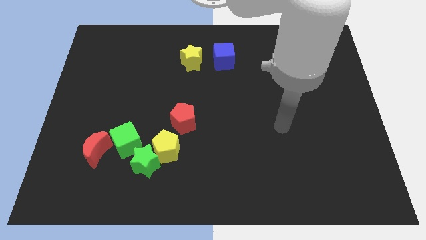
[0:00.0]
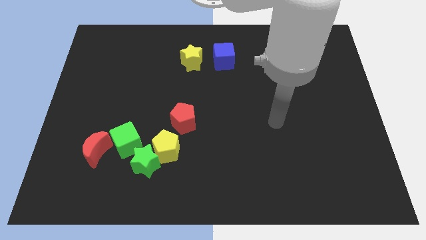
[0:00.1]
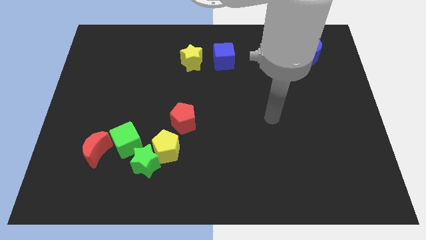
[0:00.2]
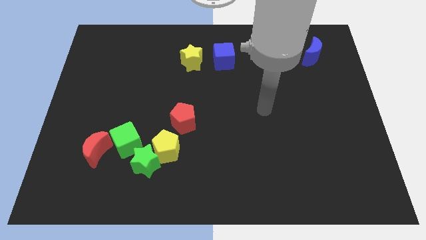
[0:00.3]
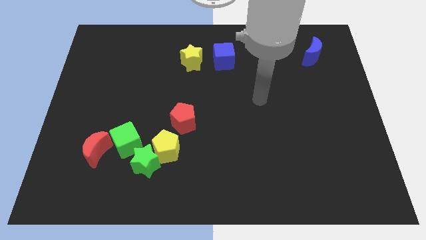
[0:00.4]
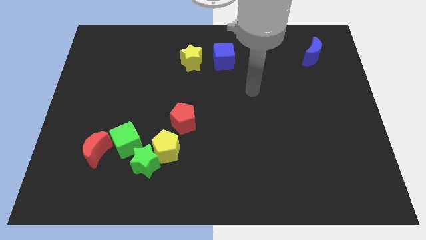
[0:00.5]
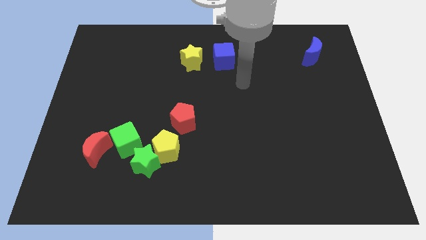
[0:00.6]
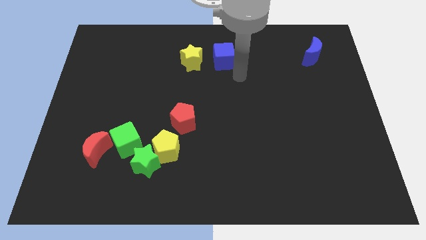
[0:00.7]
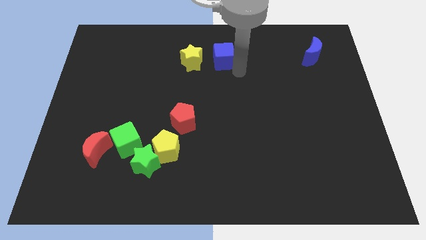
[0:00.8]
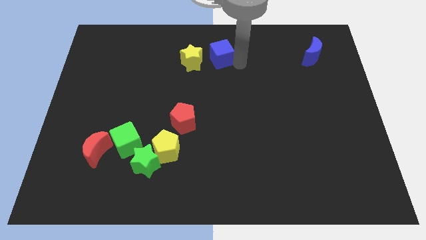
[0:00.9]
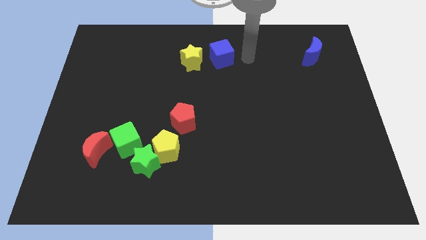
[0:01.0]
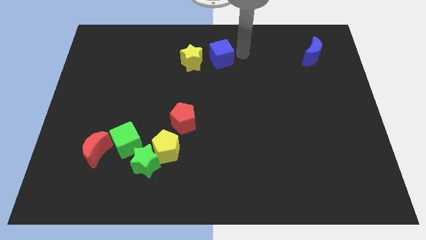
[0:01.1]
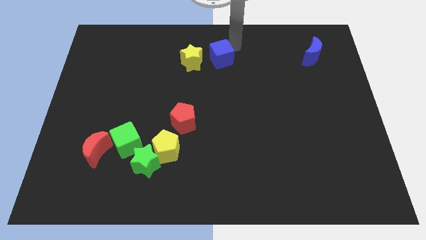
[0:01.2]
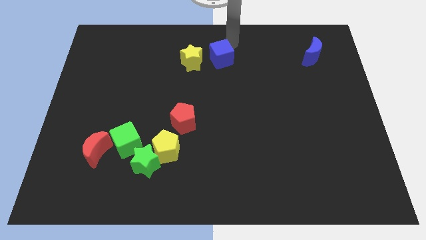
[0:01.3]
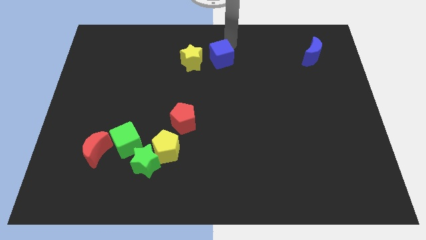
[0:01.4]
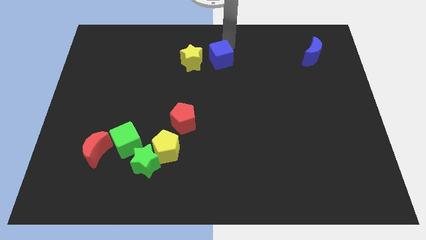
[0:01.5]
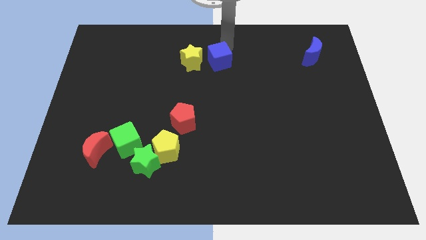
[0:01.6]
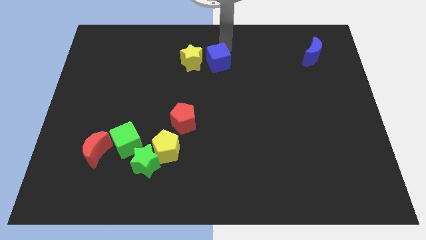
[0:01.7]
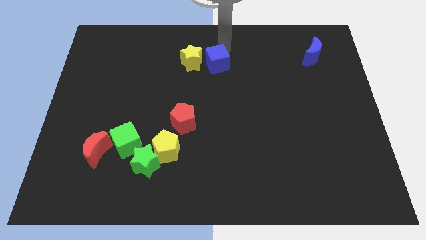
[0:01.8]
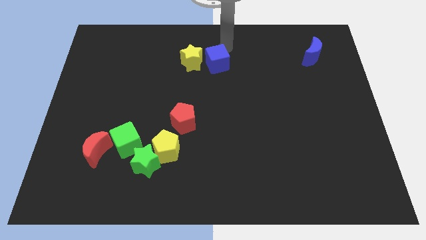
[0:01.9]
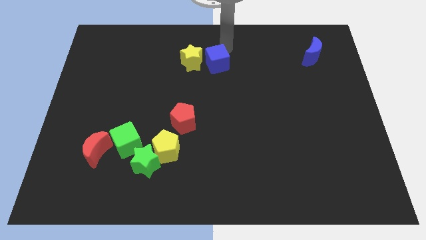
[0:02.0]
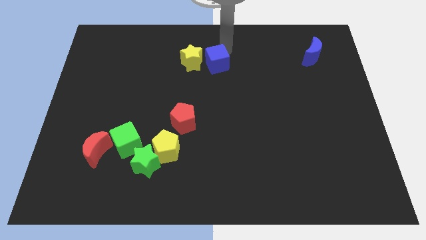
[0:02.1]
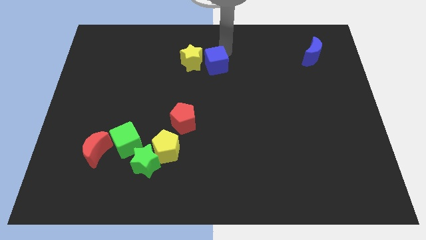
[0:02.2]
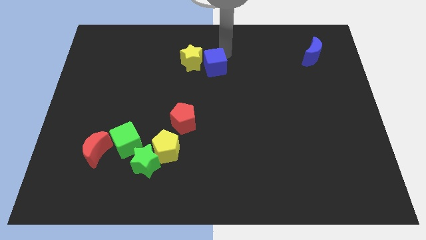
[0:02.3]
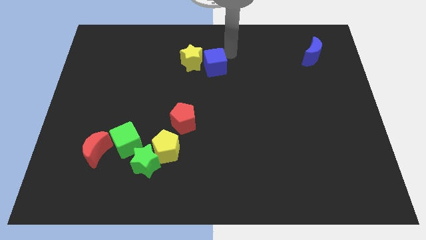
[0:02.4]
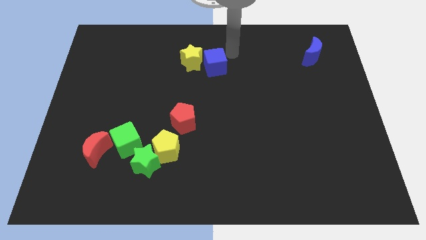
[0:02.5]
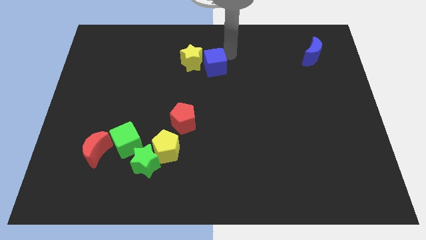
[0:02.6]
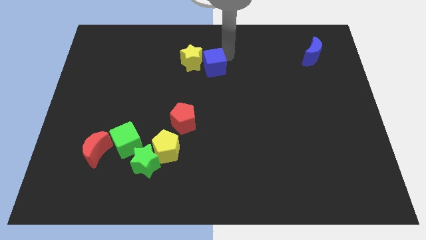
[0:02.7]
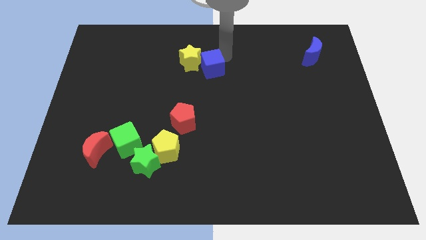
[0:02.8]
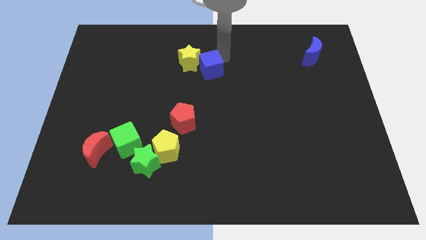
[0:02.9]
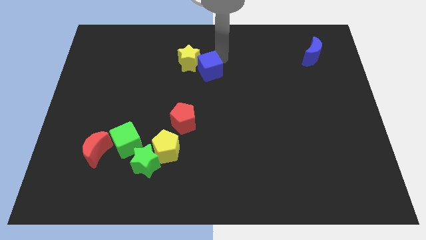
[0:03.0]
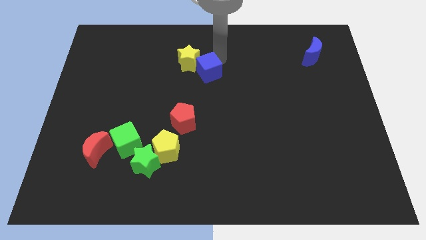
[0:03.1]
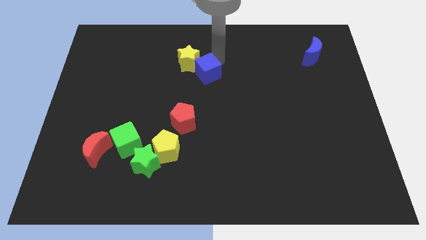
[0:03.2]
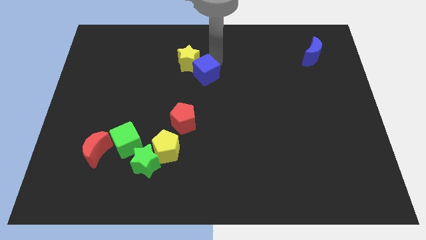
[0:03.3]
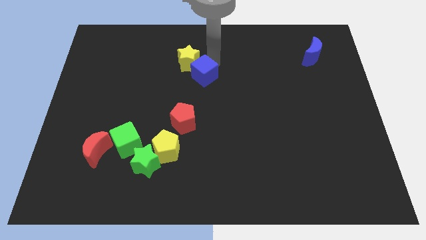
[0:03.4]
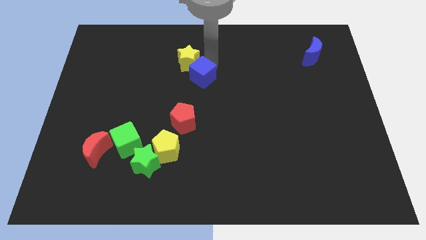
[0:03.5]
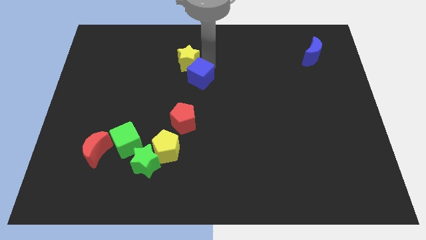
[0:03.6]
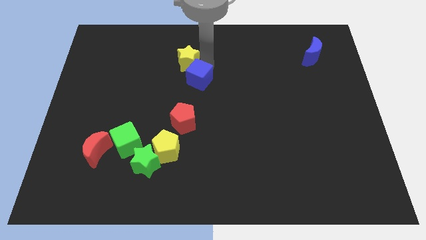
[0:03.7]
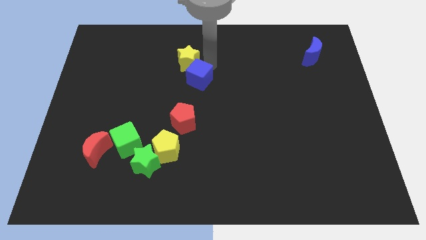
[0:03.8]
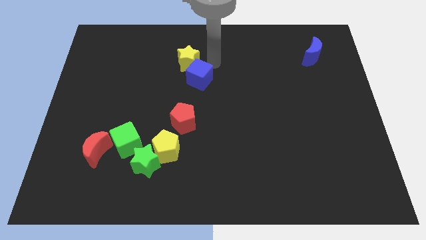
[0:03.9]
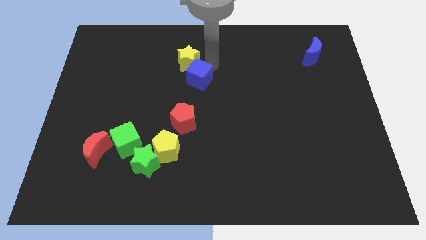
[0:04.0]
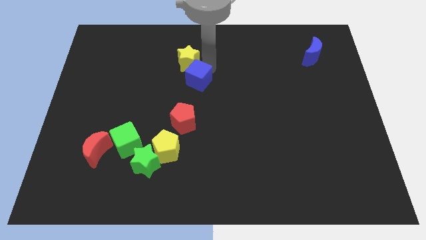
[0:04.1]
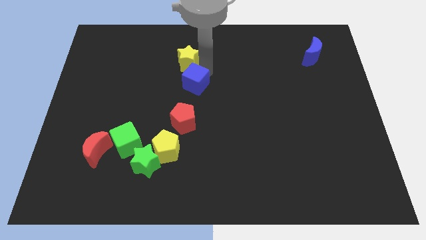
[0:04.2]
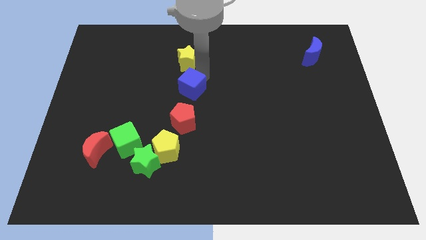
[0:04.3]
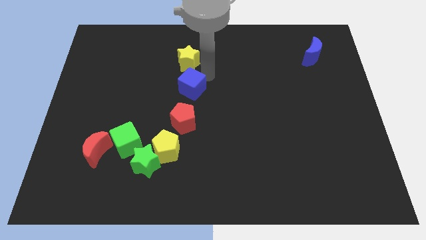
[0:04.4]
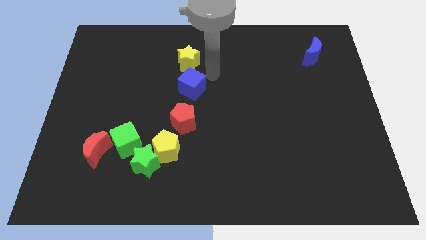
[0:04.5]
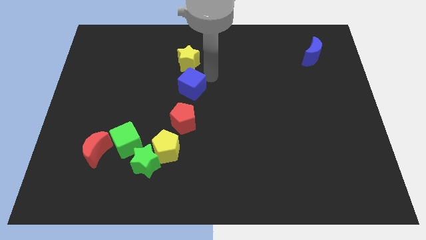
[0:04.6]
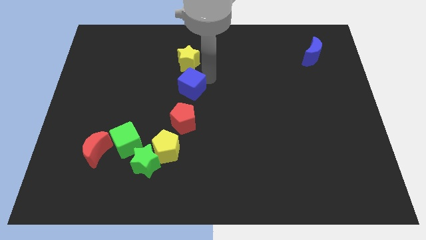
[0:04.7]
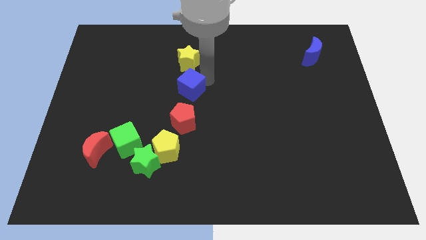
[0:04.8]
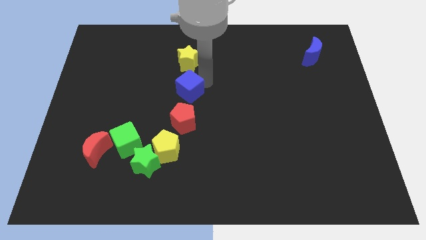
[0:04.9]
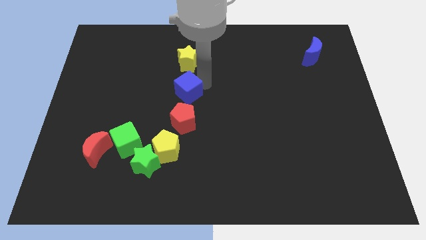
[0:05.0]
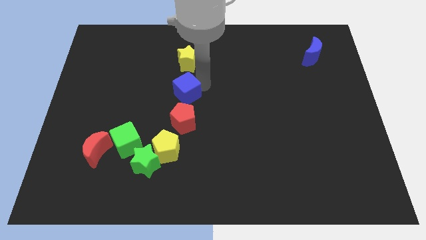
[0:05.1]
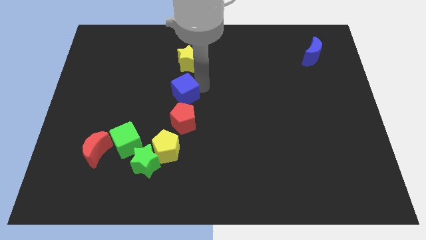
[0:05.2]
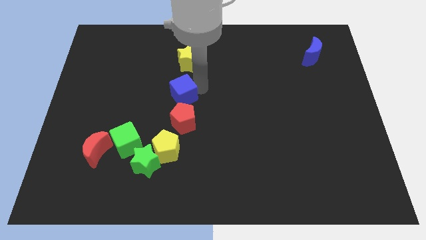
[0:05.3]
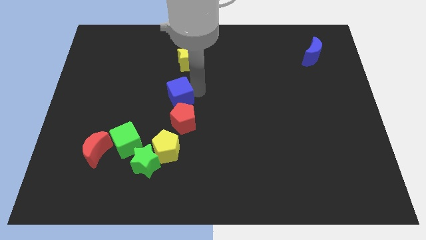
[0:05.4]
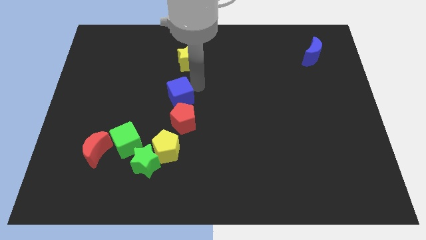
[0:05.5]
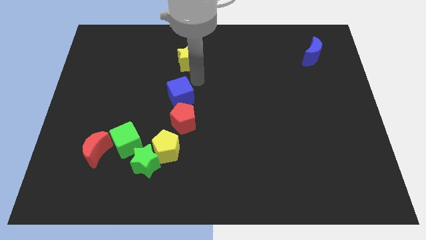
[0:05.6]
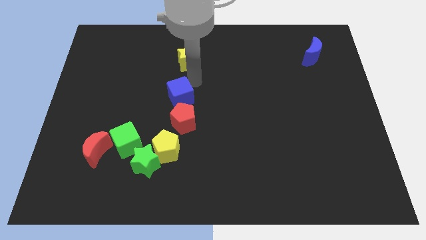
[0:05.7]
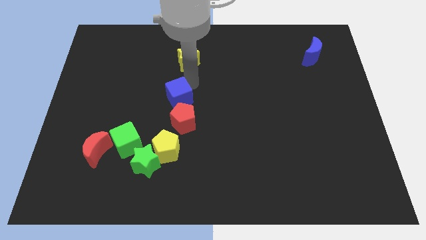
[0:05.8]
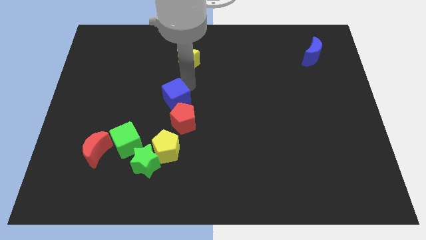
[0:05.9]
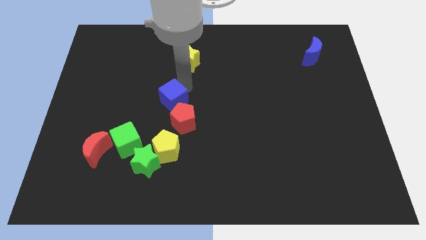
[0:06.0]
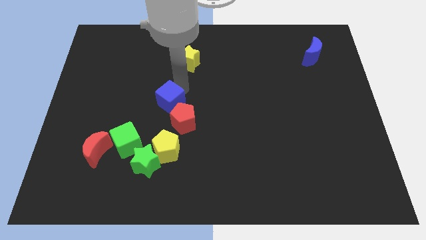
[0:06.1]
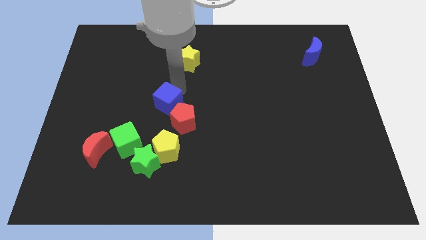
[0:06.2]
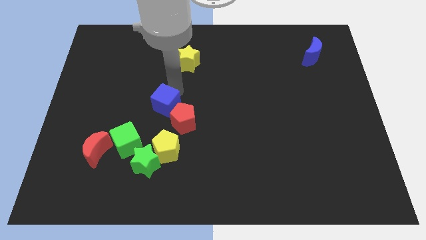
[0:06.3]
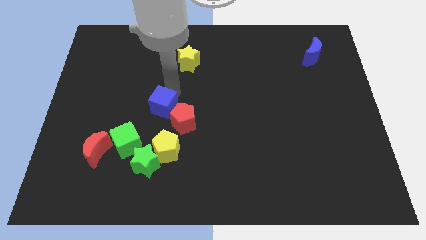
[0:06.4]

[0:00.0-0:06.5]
move the blue cube to the top right of the green cube

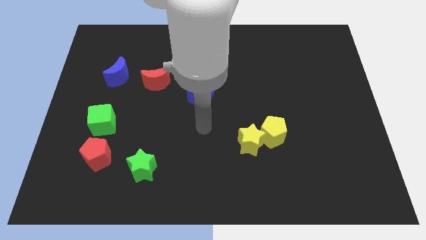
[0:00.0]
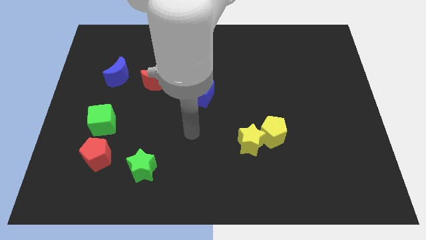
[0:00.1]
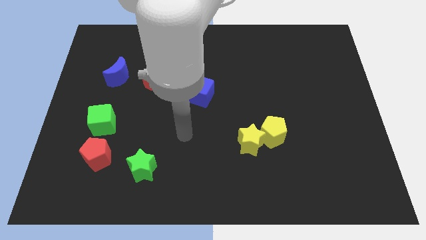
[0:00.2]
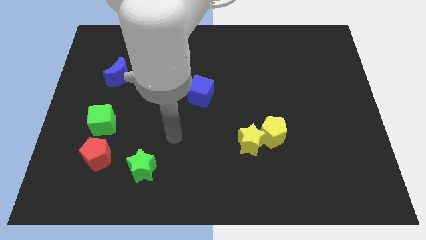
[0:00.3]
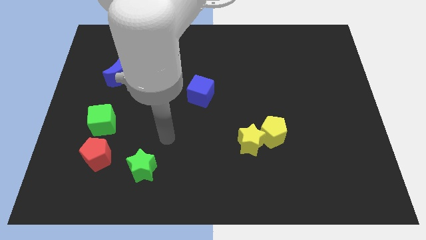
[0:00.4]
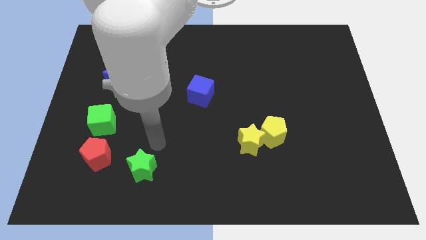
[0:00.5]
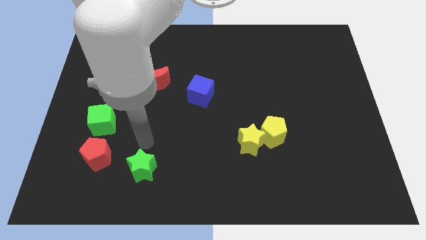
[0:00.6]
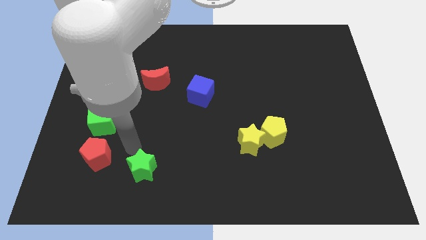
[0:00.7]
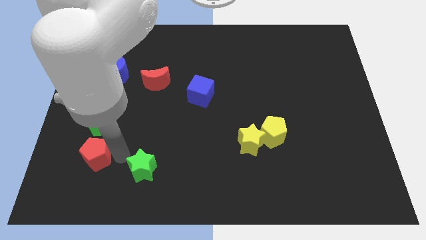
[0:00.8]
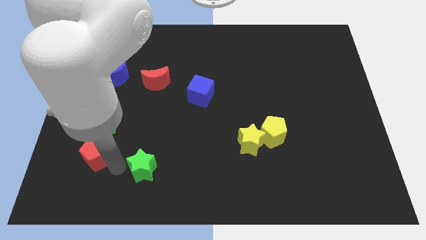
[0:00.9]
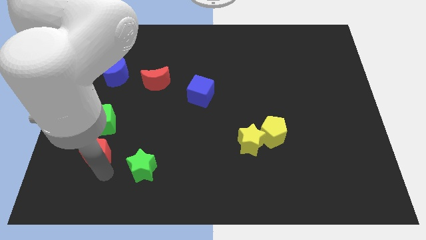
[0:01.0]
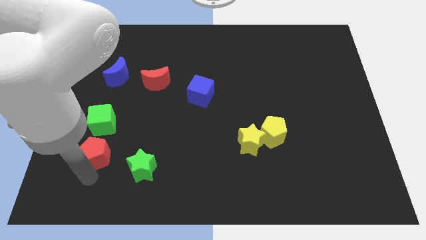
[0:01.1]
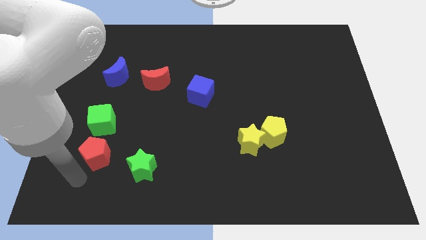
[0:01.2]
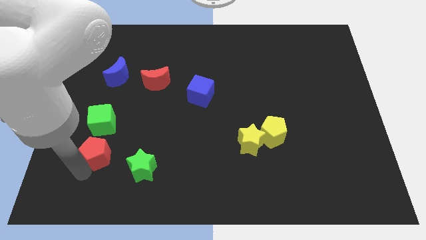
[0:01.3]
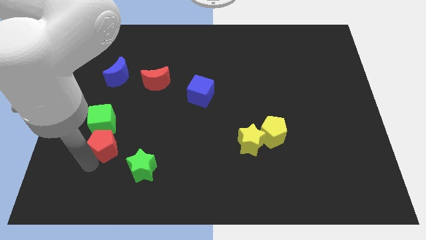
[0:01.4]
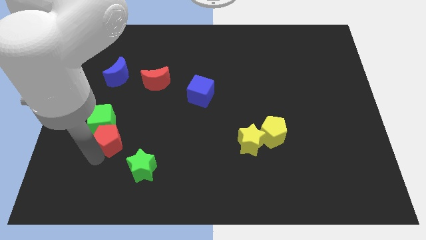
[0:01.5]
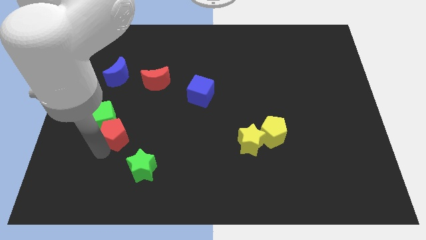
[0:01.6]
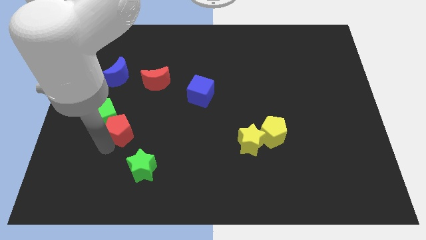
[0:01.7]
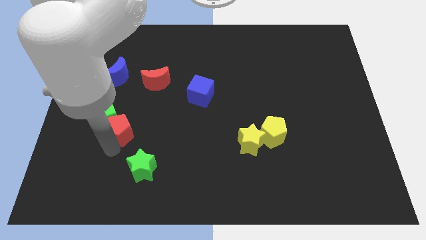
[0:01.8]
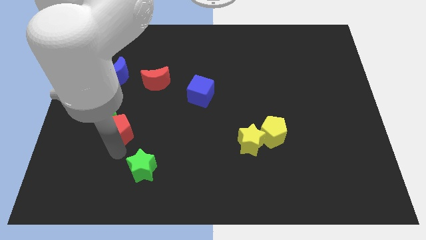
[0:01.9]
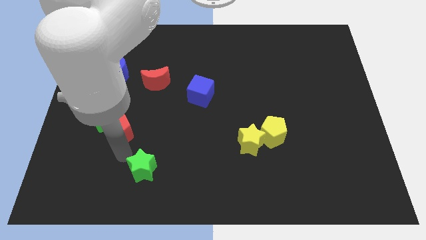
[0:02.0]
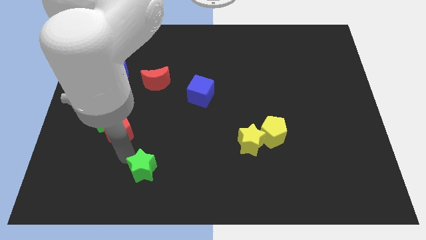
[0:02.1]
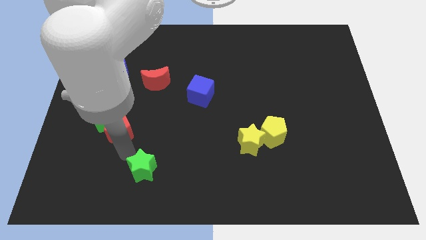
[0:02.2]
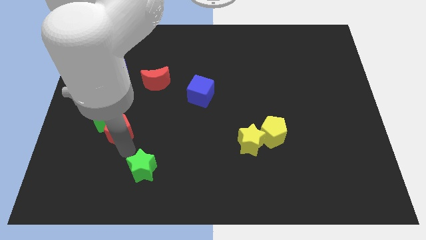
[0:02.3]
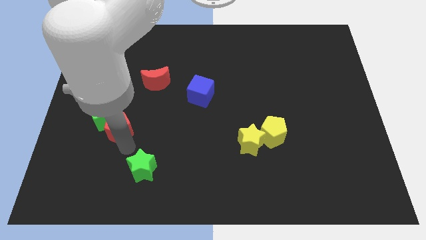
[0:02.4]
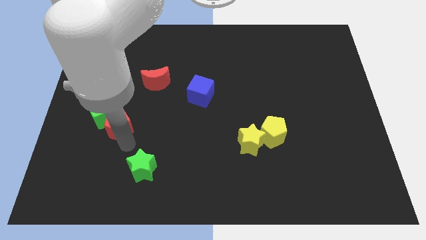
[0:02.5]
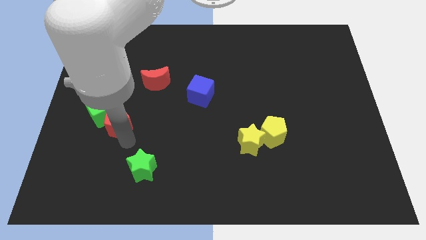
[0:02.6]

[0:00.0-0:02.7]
push the red pentagon to the bottom of the blue moon
